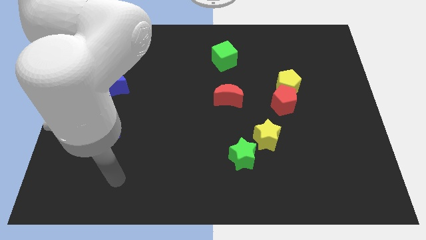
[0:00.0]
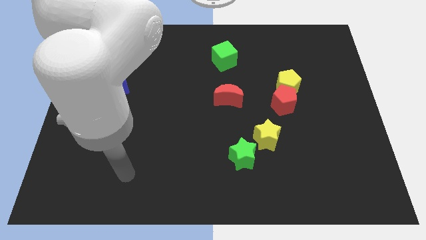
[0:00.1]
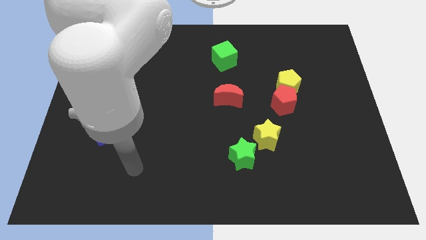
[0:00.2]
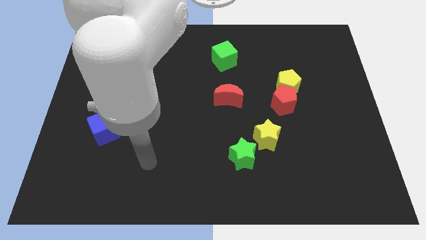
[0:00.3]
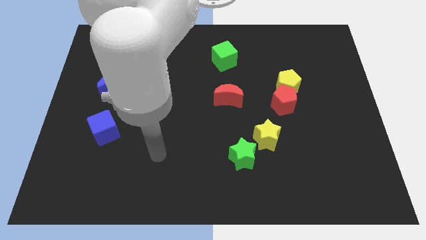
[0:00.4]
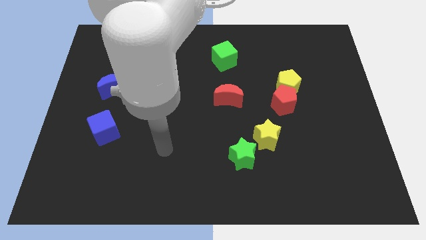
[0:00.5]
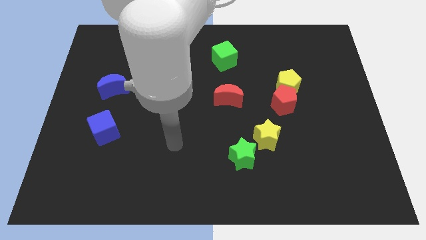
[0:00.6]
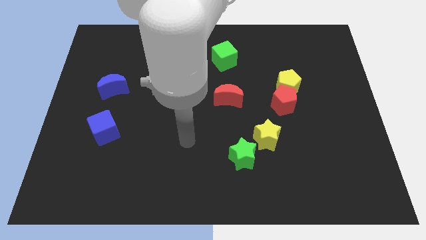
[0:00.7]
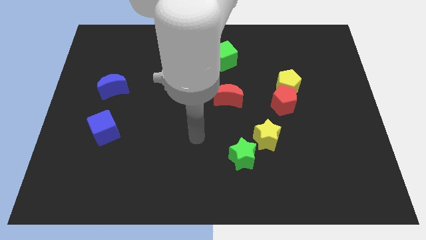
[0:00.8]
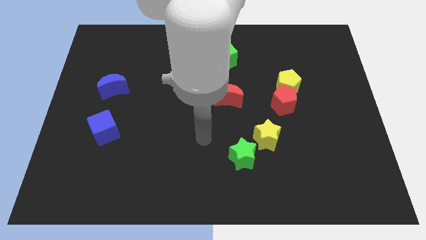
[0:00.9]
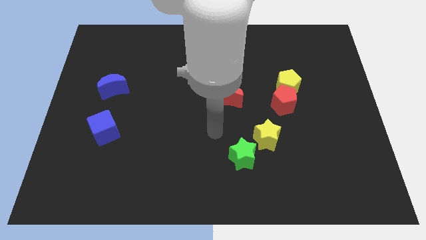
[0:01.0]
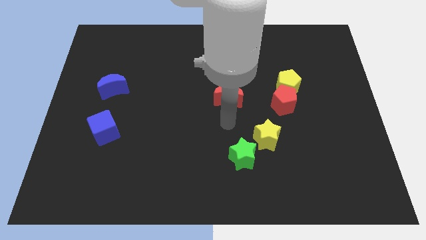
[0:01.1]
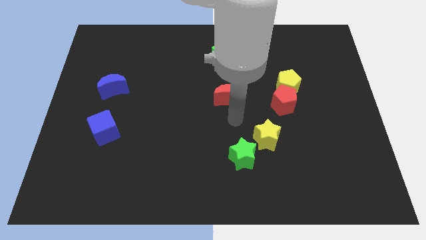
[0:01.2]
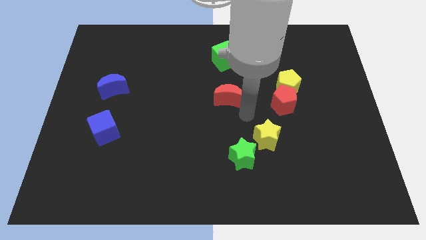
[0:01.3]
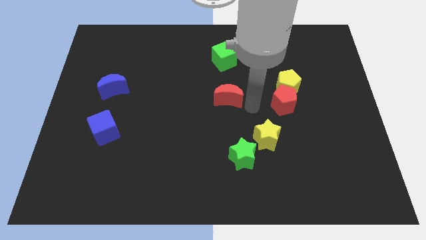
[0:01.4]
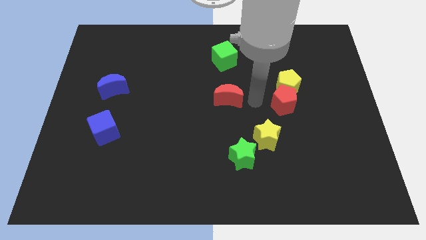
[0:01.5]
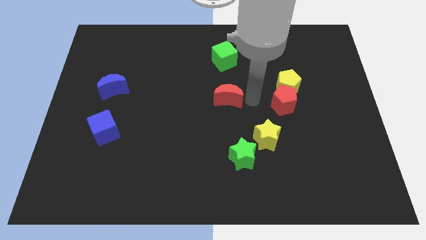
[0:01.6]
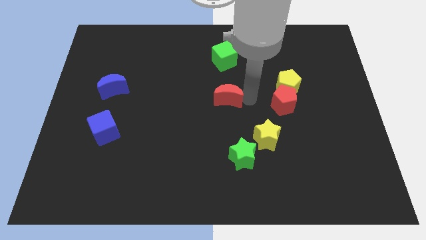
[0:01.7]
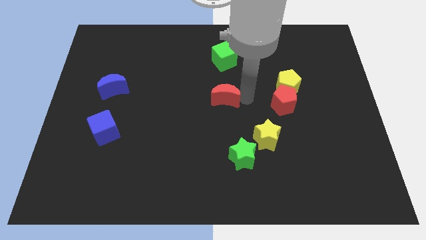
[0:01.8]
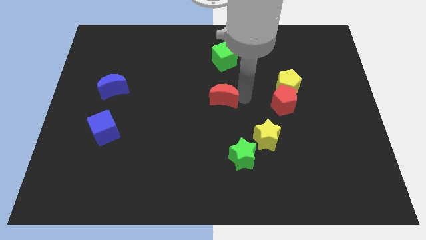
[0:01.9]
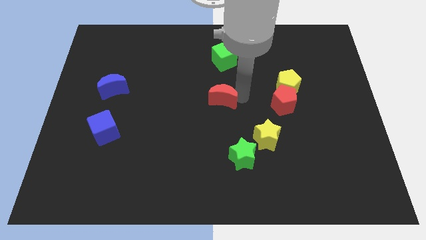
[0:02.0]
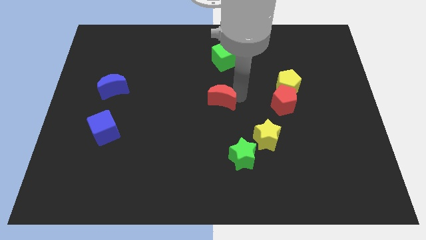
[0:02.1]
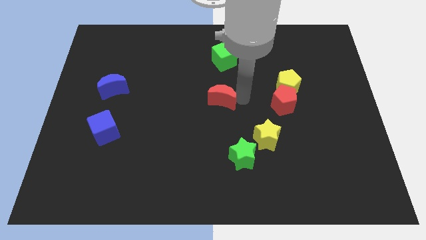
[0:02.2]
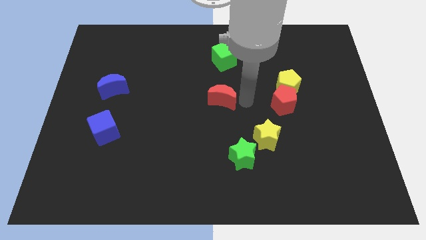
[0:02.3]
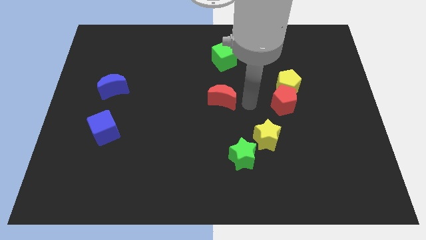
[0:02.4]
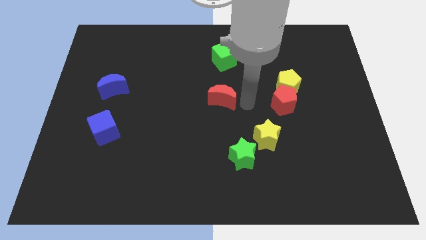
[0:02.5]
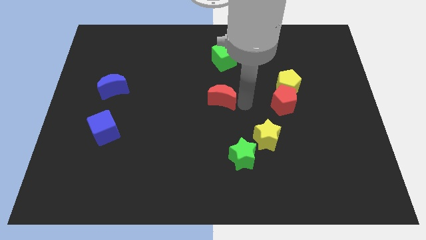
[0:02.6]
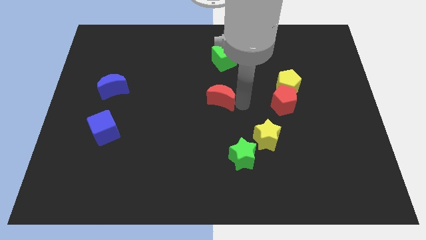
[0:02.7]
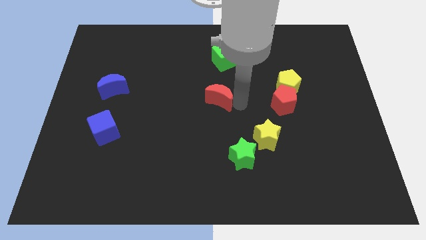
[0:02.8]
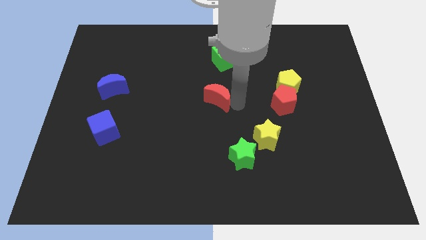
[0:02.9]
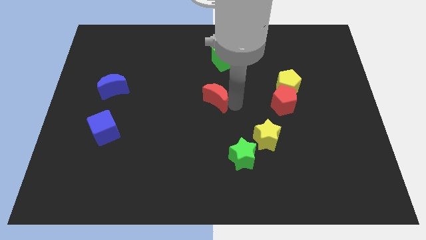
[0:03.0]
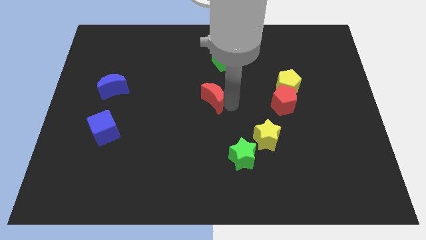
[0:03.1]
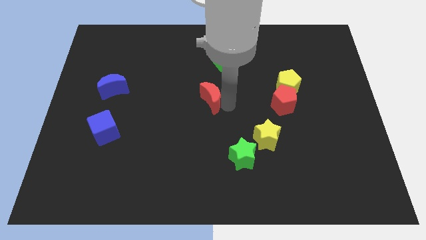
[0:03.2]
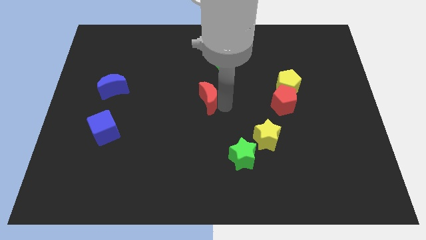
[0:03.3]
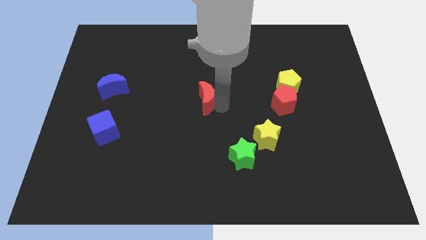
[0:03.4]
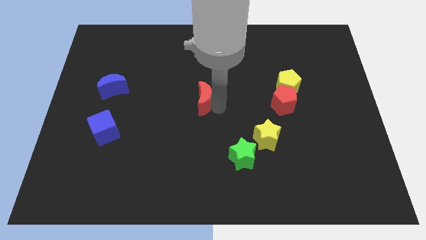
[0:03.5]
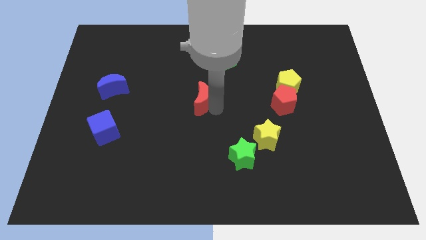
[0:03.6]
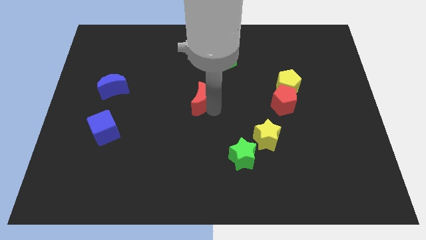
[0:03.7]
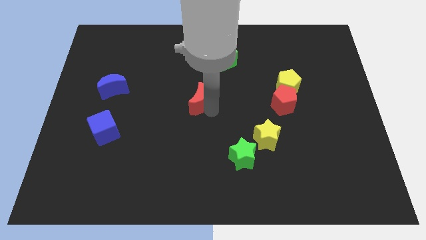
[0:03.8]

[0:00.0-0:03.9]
slide the red moon left slightly

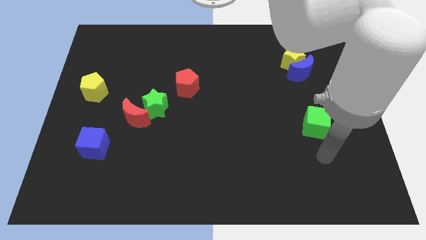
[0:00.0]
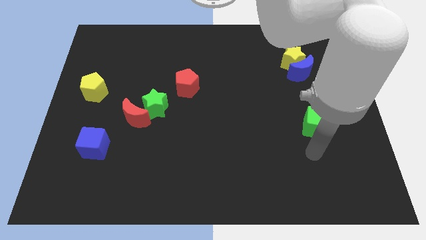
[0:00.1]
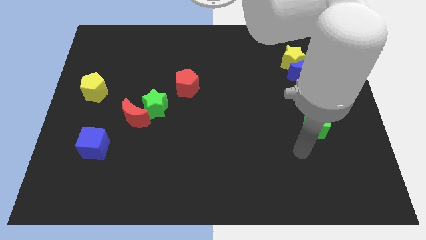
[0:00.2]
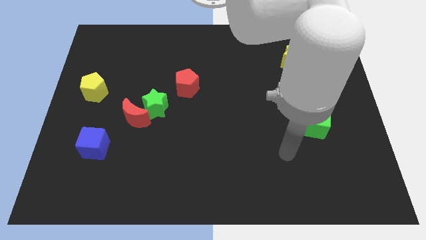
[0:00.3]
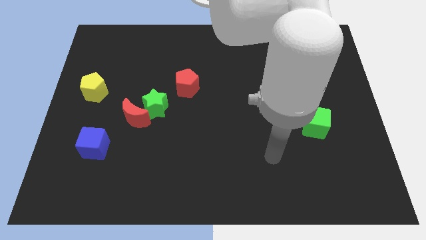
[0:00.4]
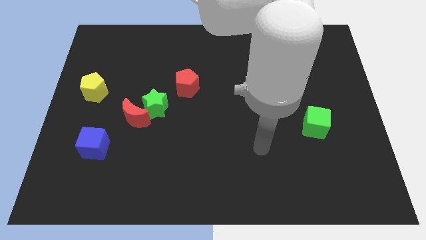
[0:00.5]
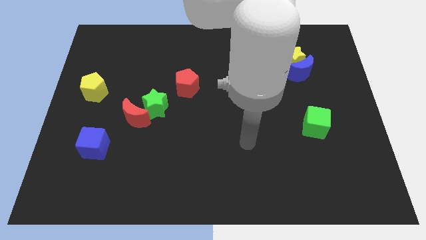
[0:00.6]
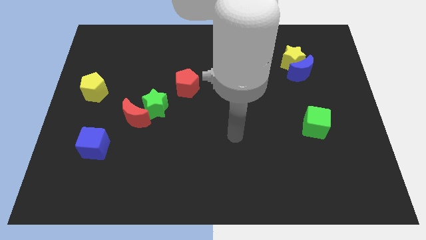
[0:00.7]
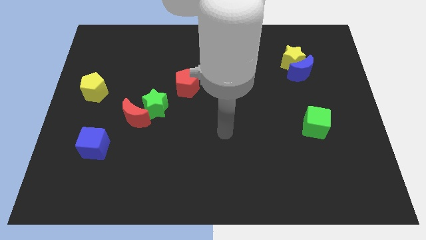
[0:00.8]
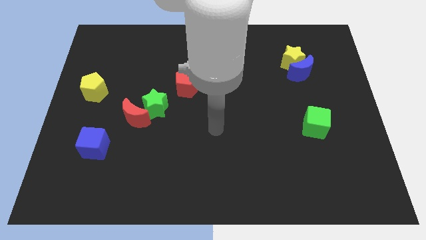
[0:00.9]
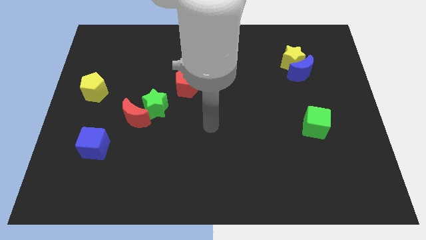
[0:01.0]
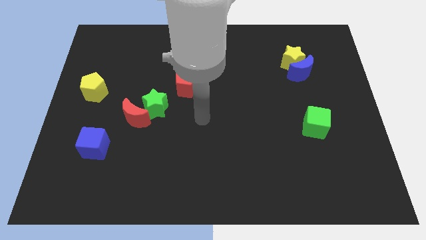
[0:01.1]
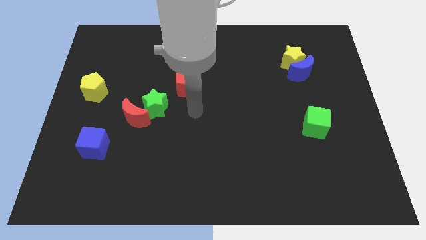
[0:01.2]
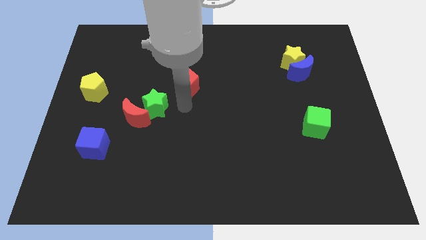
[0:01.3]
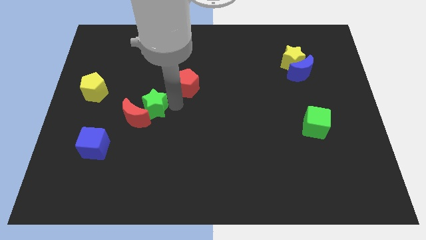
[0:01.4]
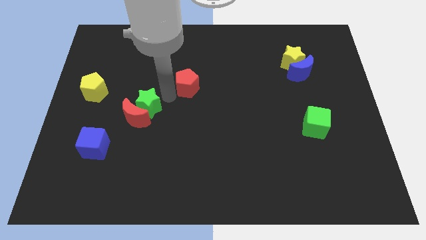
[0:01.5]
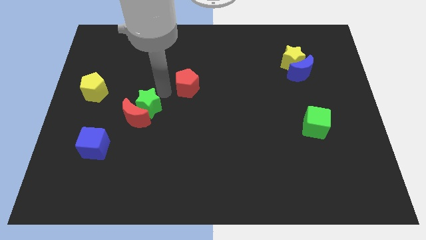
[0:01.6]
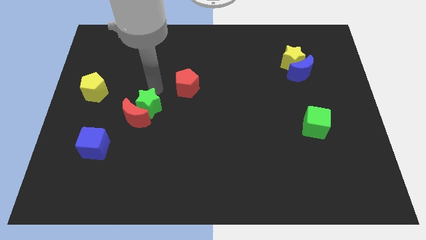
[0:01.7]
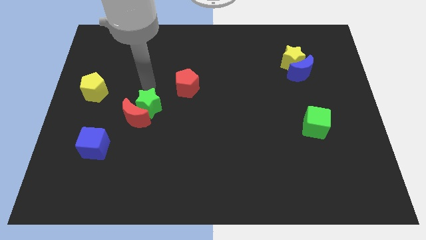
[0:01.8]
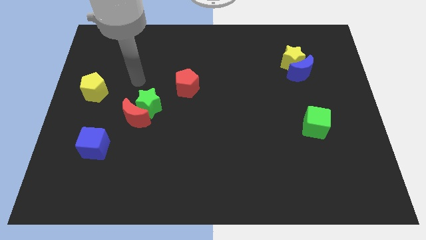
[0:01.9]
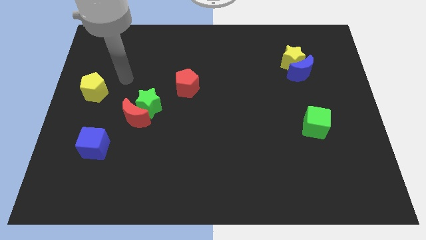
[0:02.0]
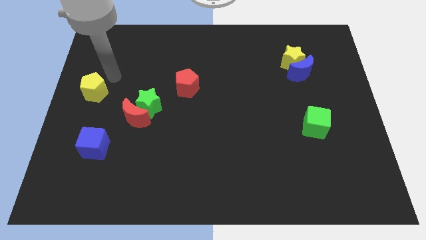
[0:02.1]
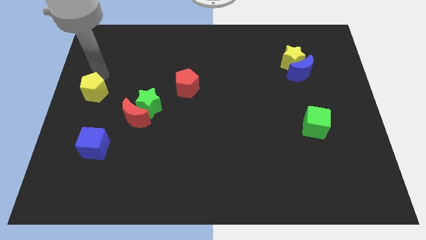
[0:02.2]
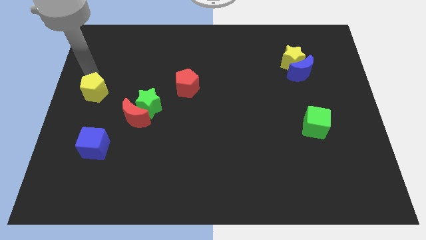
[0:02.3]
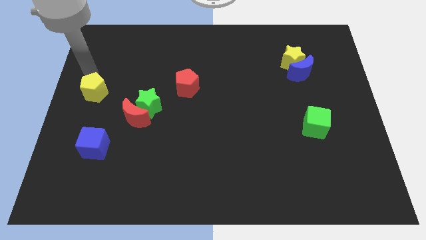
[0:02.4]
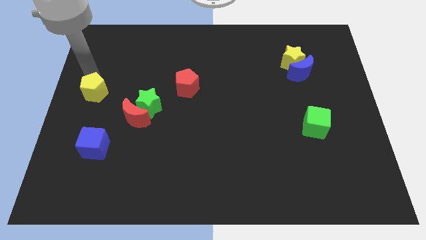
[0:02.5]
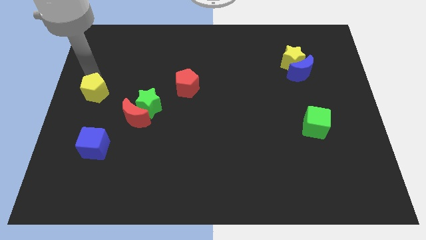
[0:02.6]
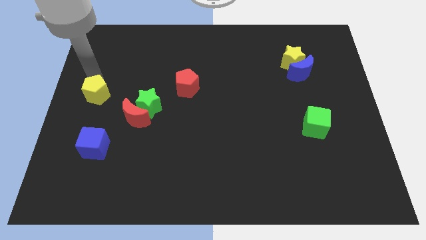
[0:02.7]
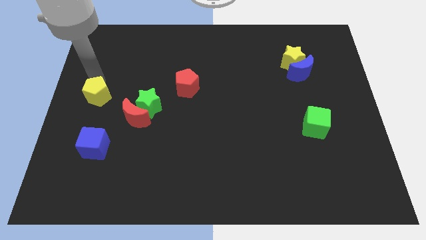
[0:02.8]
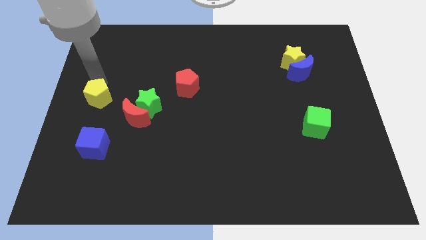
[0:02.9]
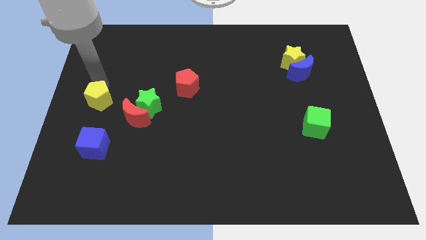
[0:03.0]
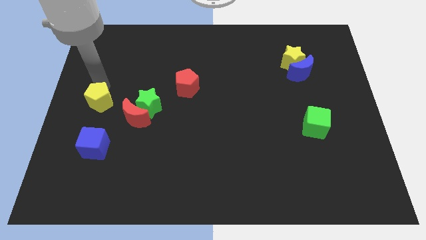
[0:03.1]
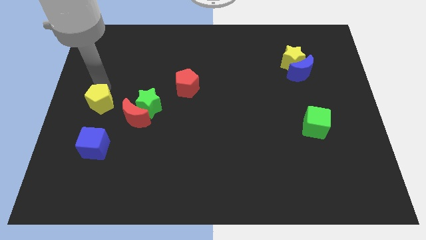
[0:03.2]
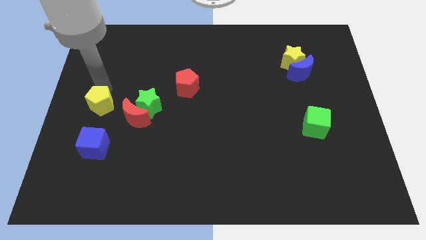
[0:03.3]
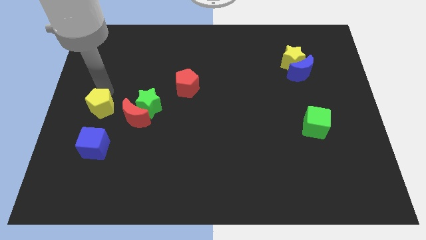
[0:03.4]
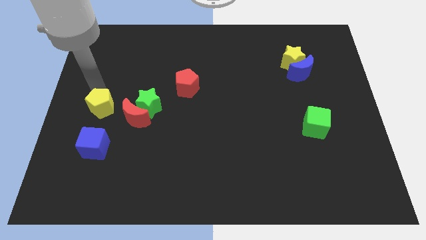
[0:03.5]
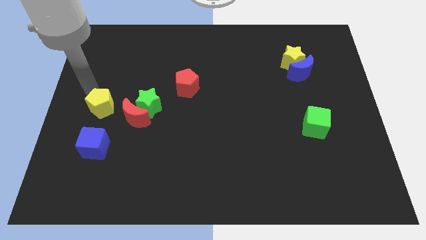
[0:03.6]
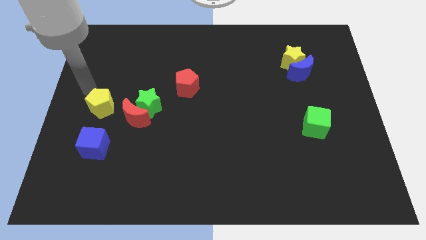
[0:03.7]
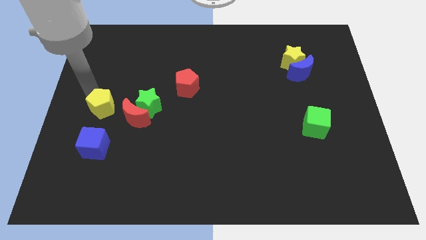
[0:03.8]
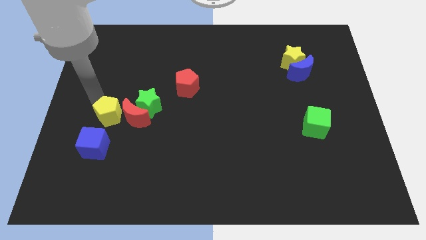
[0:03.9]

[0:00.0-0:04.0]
move the yellow pentagon slightly downwards and right diagonally

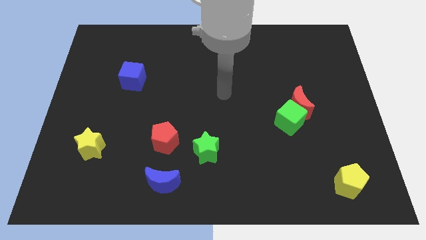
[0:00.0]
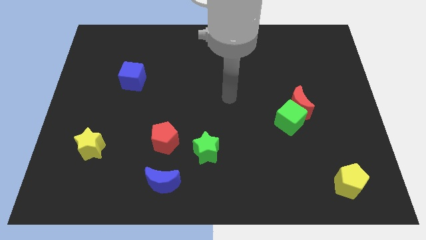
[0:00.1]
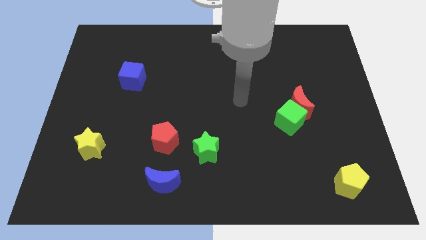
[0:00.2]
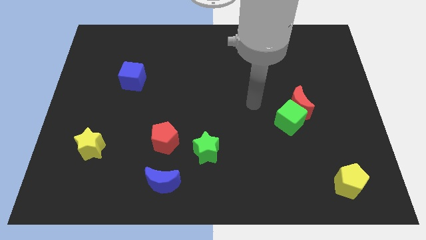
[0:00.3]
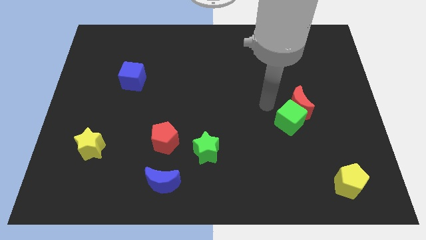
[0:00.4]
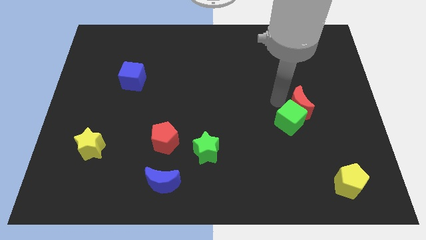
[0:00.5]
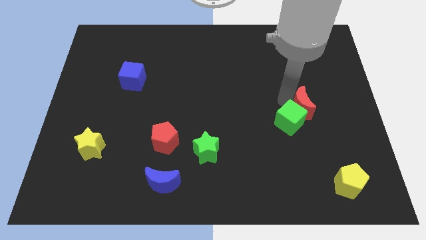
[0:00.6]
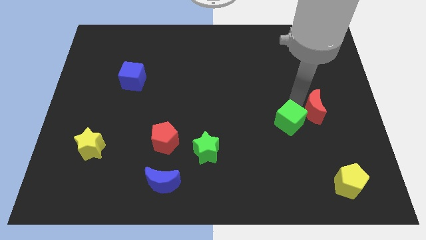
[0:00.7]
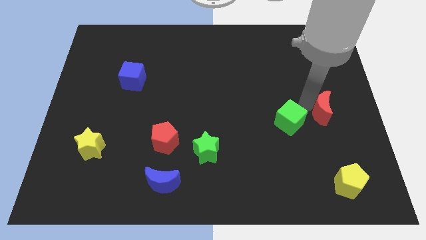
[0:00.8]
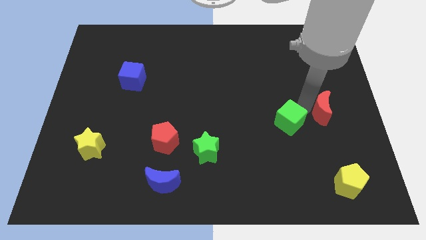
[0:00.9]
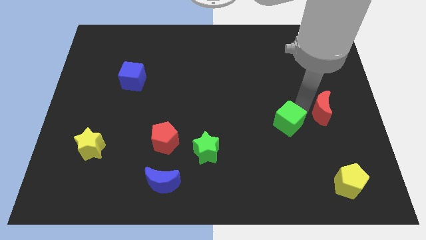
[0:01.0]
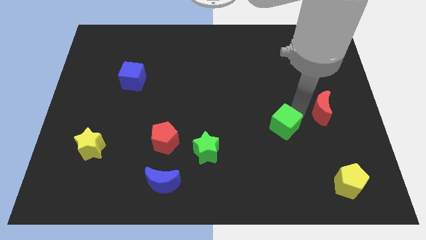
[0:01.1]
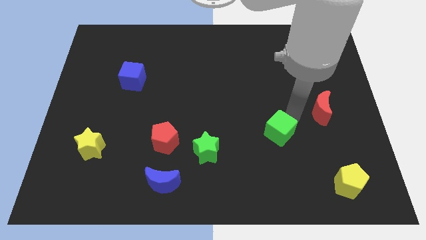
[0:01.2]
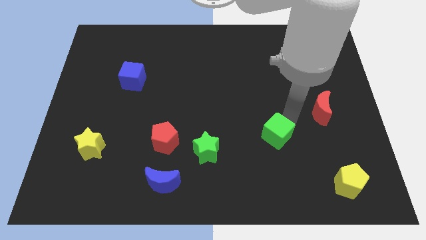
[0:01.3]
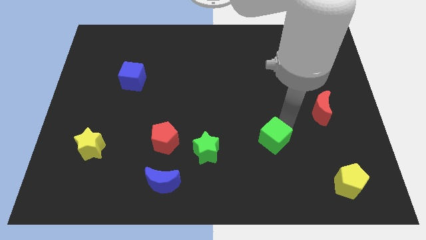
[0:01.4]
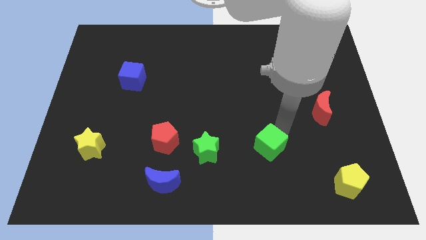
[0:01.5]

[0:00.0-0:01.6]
slightly move the green cube diagonally downwards and left
